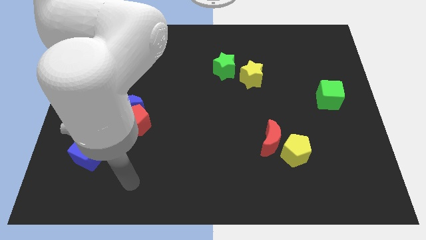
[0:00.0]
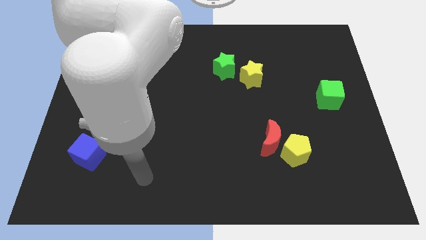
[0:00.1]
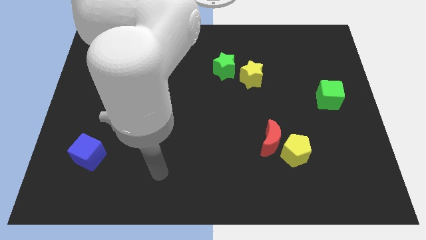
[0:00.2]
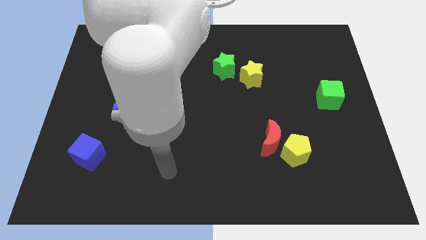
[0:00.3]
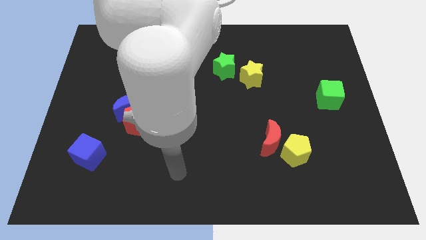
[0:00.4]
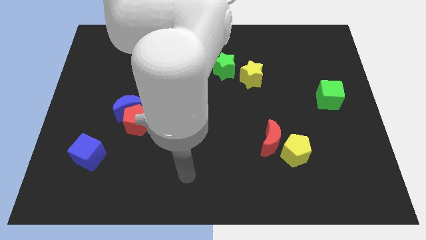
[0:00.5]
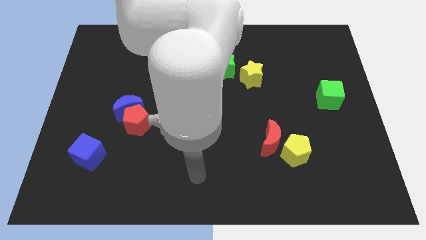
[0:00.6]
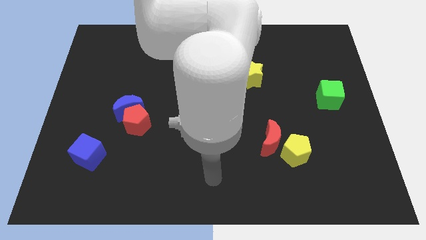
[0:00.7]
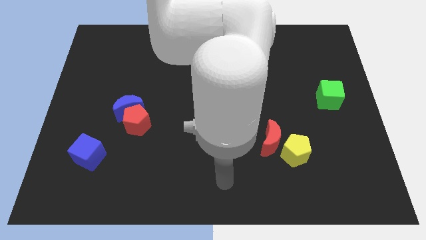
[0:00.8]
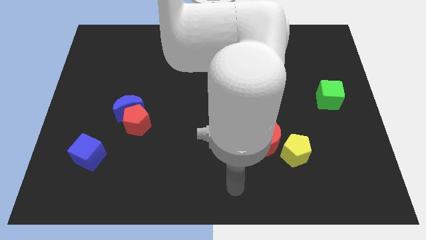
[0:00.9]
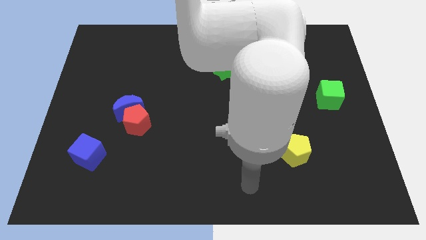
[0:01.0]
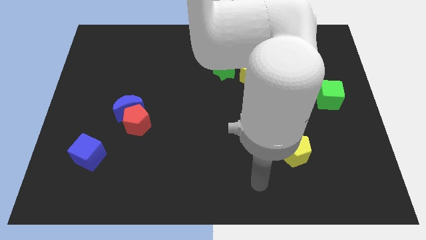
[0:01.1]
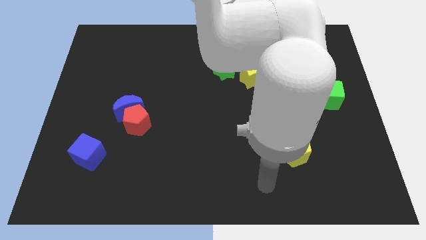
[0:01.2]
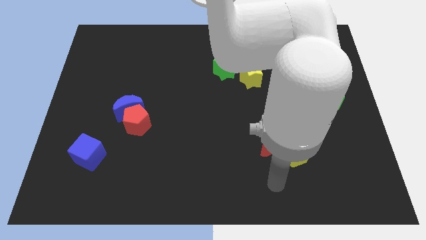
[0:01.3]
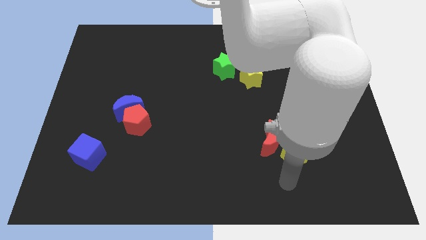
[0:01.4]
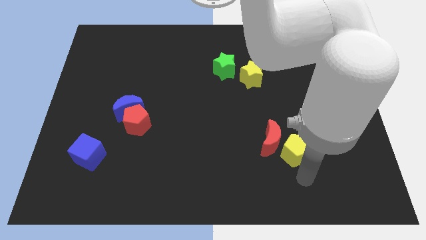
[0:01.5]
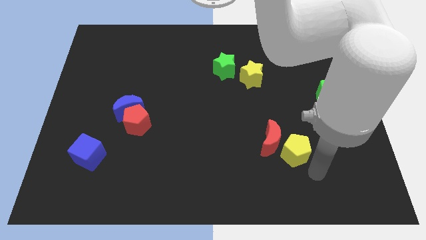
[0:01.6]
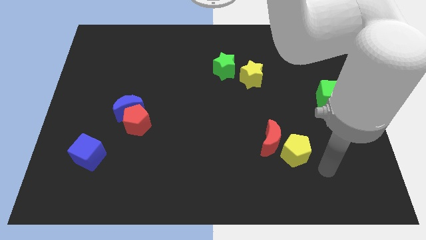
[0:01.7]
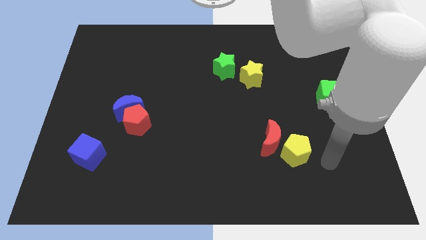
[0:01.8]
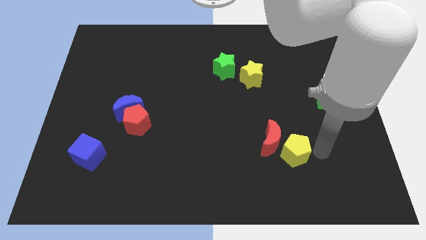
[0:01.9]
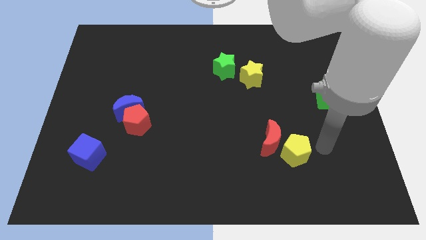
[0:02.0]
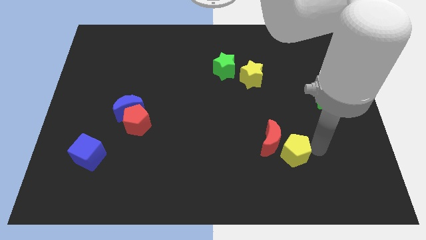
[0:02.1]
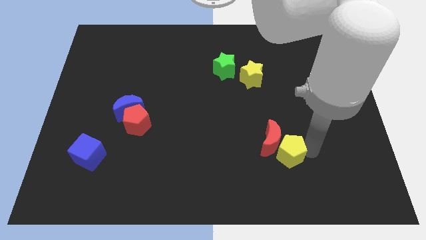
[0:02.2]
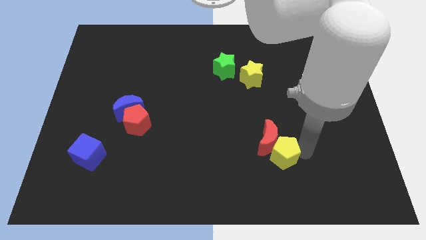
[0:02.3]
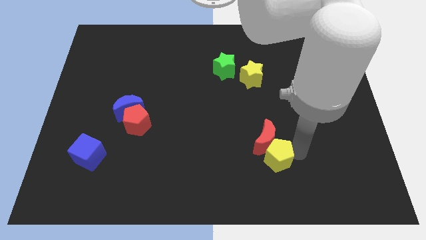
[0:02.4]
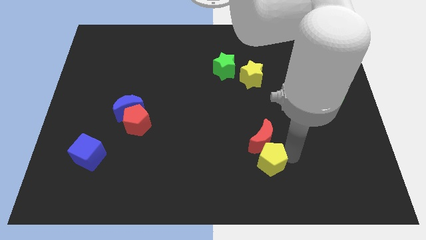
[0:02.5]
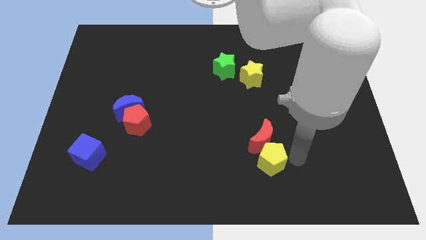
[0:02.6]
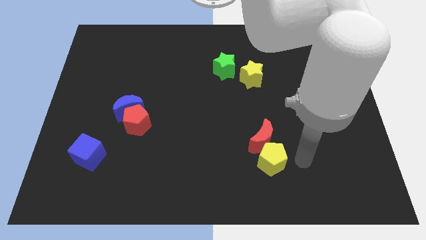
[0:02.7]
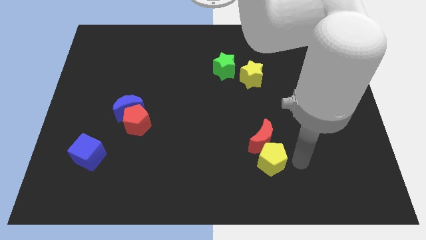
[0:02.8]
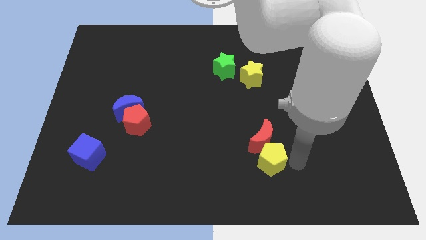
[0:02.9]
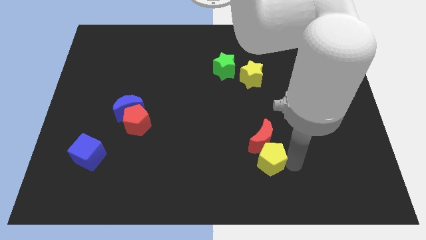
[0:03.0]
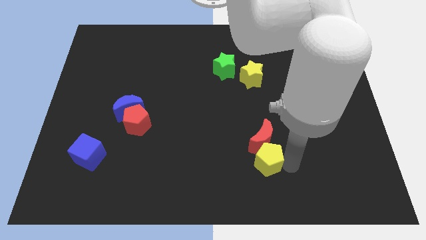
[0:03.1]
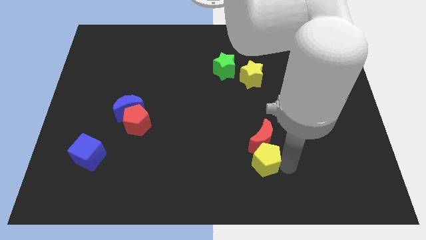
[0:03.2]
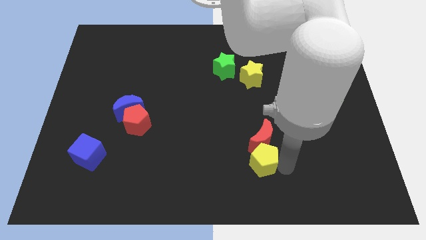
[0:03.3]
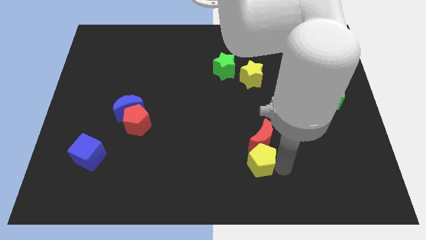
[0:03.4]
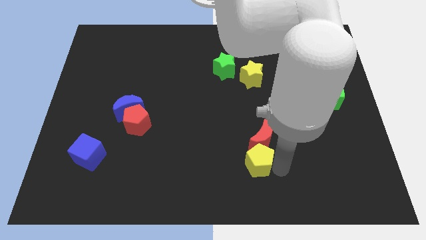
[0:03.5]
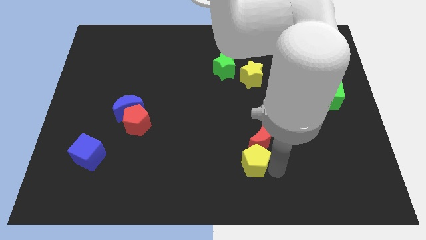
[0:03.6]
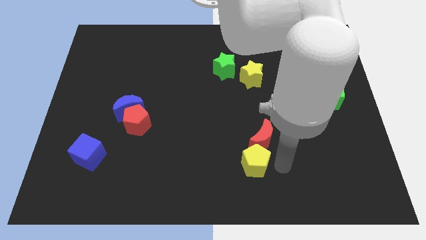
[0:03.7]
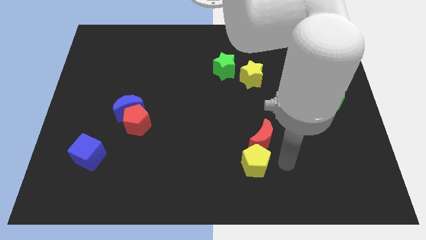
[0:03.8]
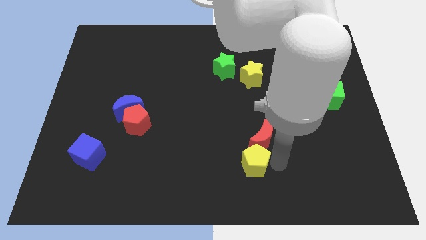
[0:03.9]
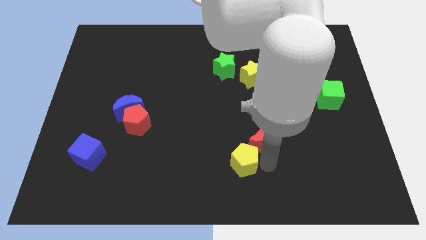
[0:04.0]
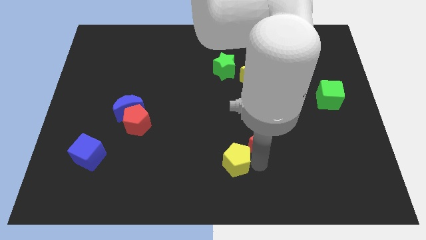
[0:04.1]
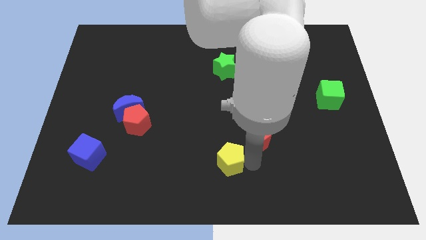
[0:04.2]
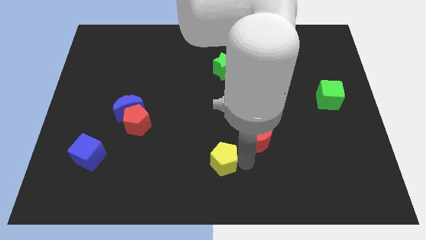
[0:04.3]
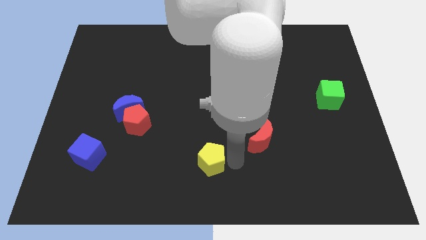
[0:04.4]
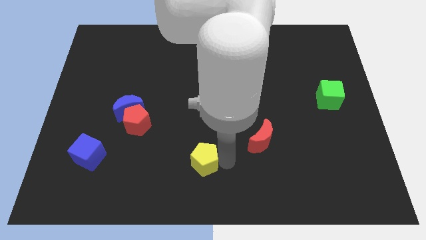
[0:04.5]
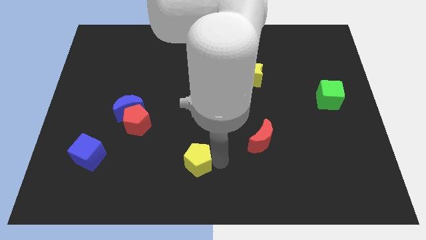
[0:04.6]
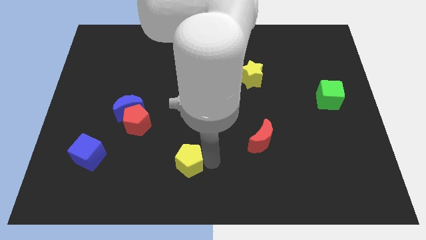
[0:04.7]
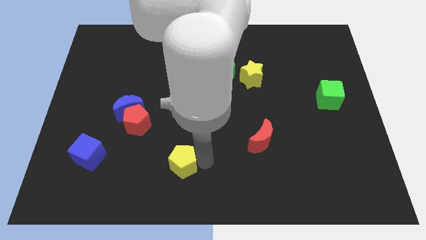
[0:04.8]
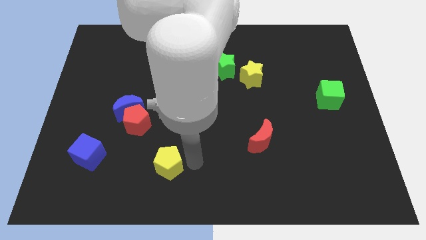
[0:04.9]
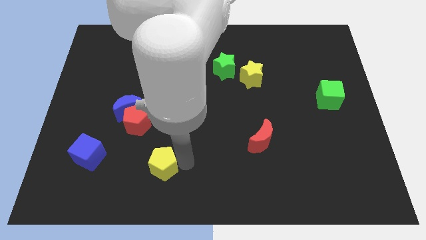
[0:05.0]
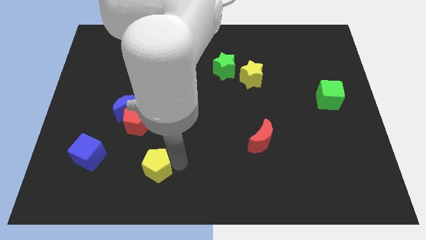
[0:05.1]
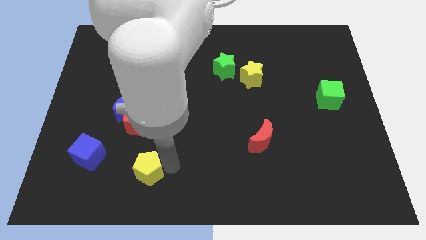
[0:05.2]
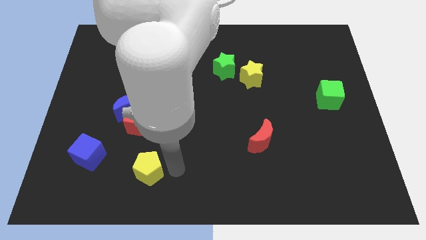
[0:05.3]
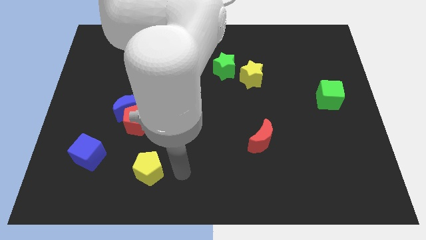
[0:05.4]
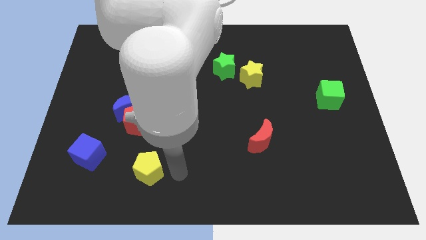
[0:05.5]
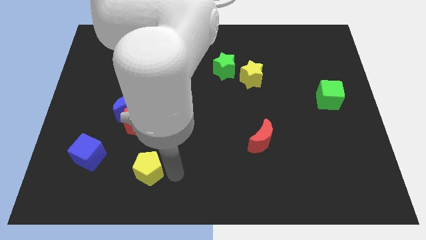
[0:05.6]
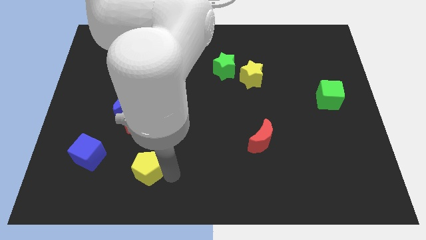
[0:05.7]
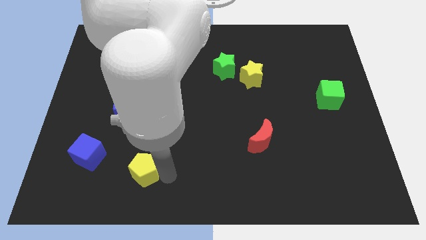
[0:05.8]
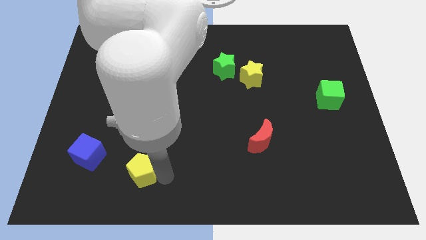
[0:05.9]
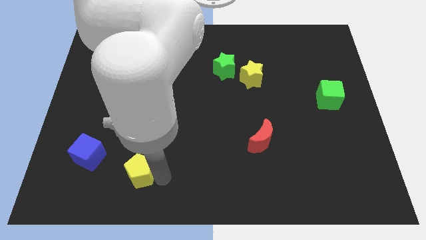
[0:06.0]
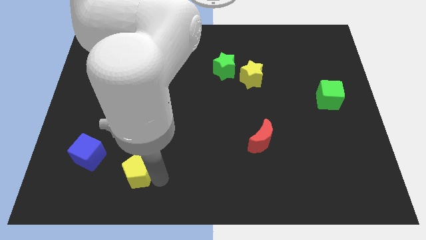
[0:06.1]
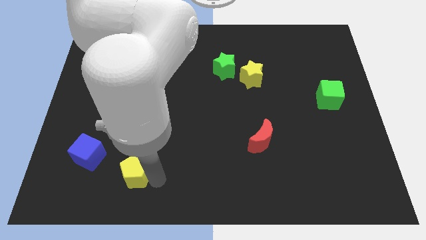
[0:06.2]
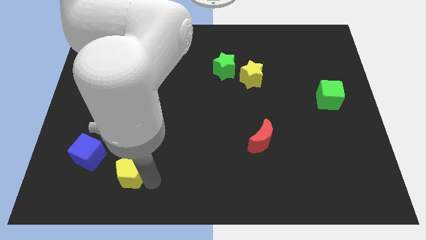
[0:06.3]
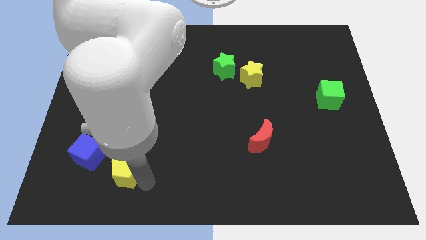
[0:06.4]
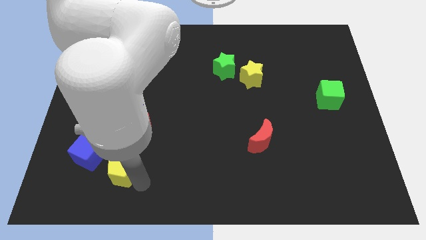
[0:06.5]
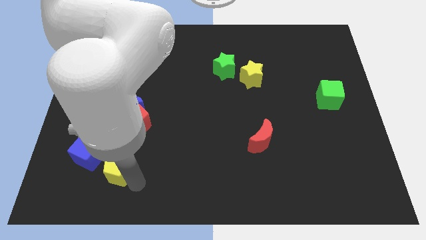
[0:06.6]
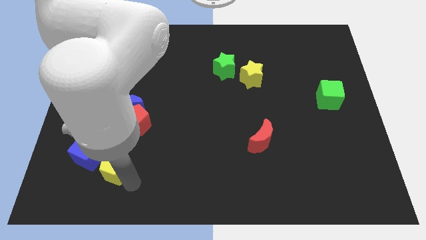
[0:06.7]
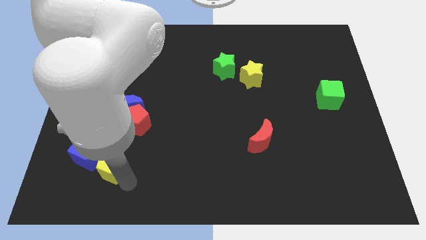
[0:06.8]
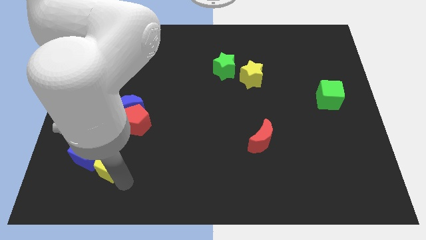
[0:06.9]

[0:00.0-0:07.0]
move the yellow pentagon towards the blue cube

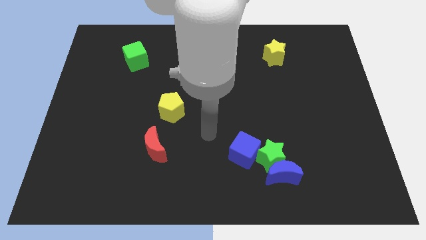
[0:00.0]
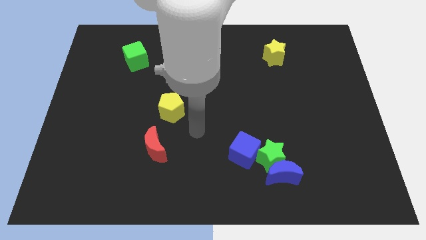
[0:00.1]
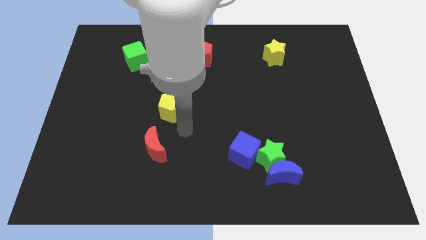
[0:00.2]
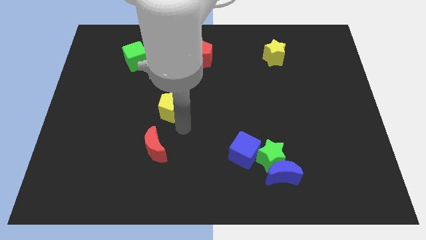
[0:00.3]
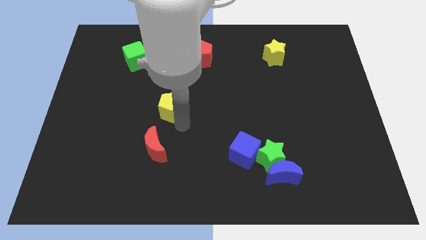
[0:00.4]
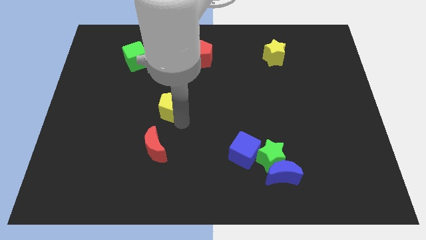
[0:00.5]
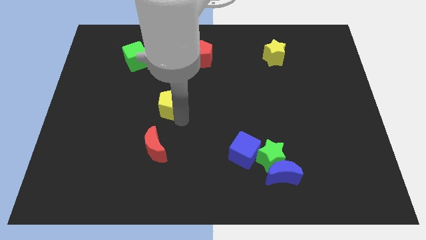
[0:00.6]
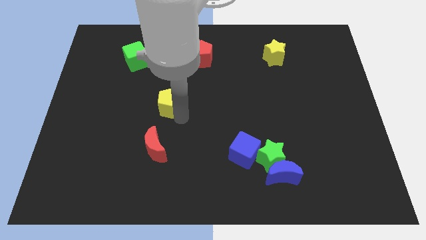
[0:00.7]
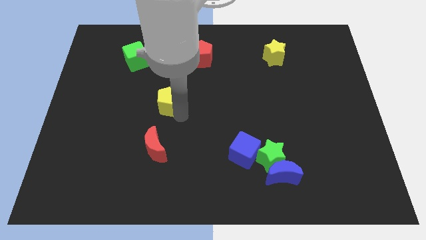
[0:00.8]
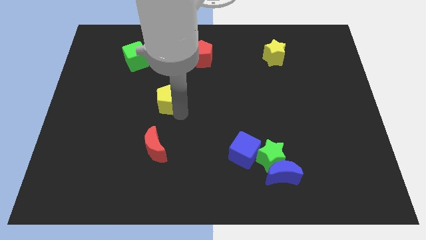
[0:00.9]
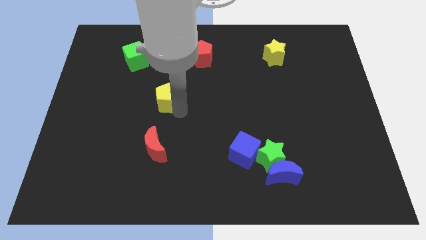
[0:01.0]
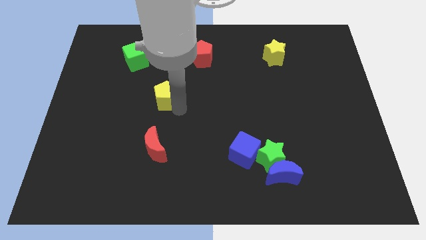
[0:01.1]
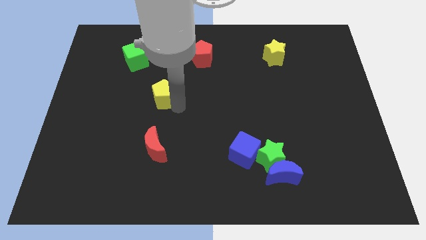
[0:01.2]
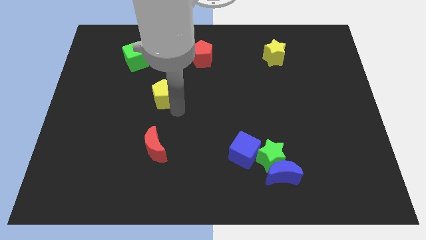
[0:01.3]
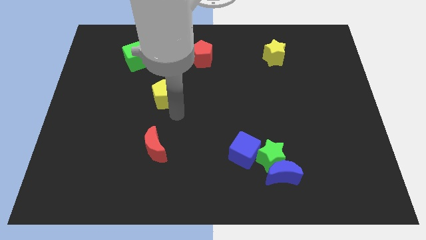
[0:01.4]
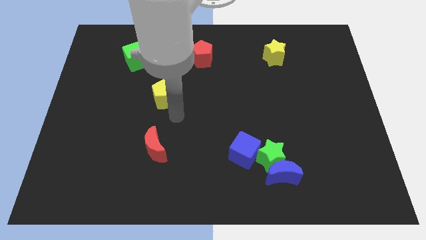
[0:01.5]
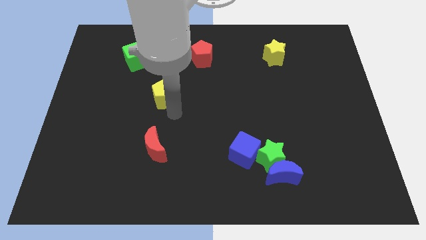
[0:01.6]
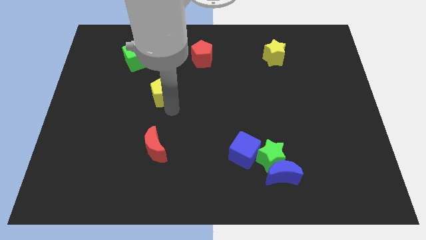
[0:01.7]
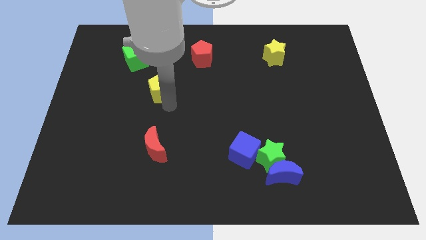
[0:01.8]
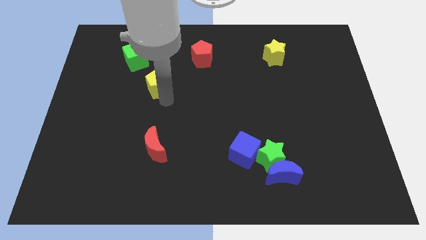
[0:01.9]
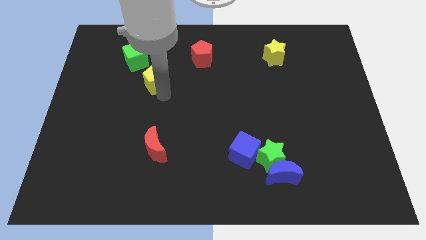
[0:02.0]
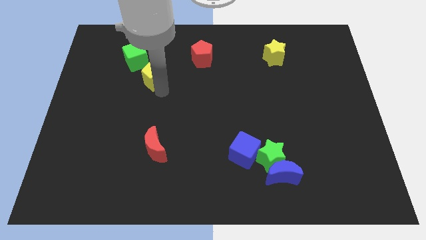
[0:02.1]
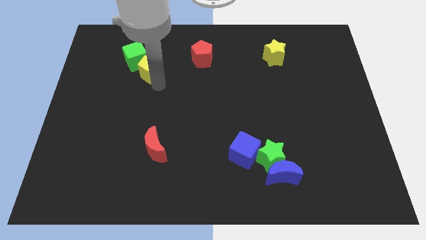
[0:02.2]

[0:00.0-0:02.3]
put the yellow pentagon to the green cube
